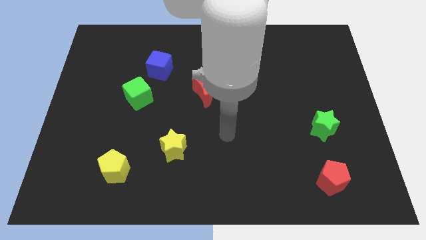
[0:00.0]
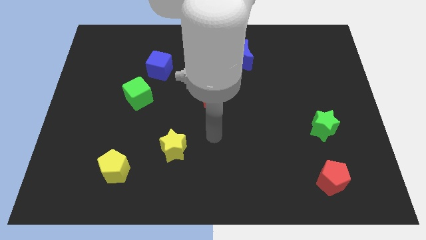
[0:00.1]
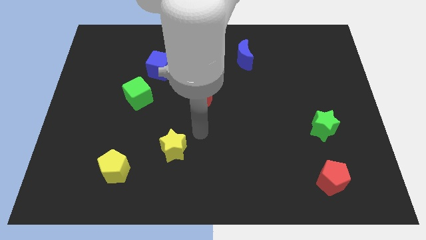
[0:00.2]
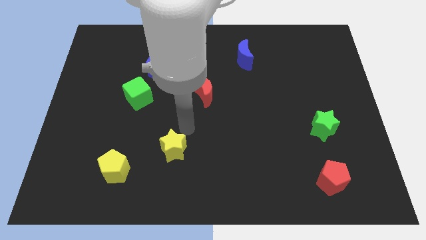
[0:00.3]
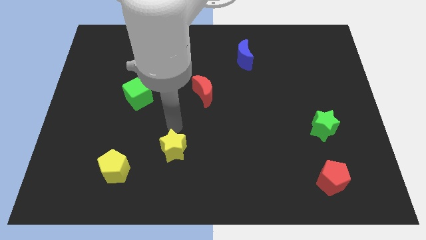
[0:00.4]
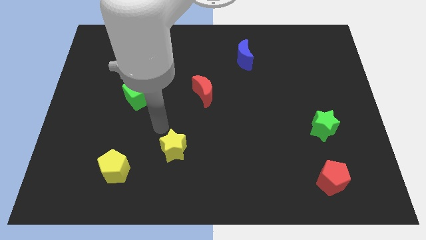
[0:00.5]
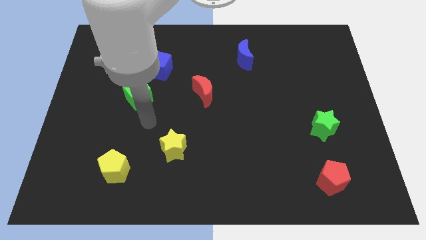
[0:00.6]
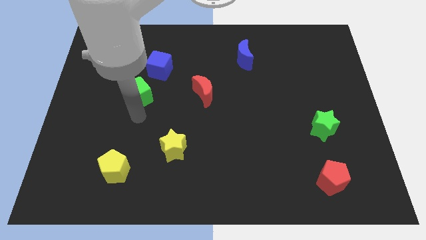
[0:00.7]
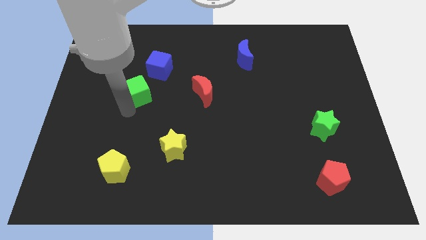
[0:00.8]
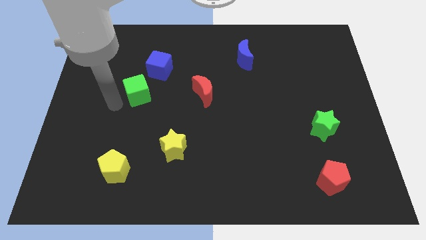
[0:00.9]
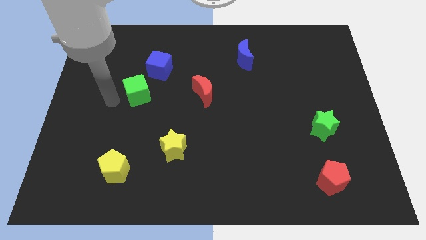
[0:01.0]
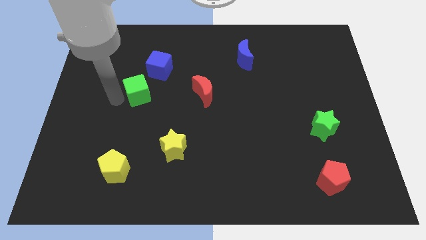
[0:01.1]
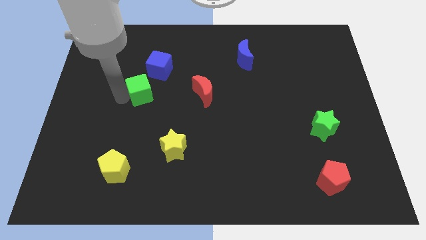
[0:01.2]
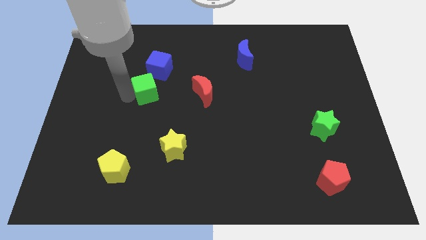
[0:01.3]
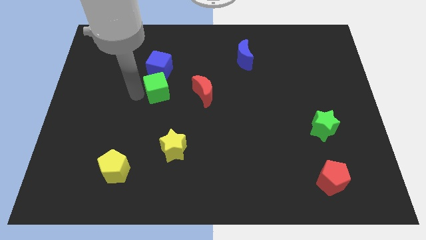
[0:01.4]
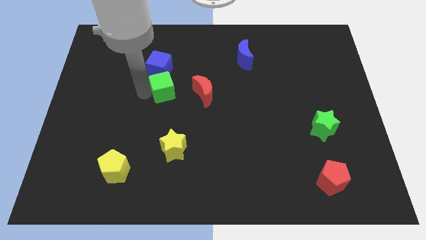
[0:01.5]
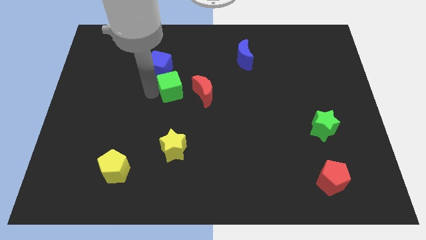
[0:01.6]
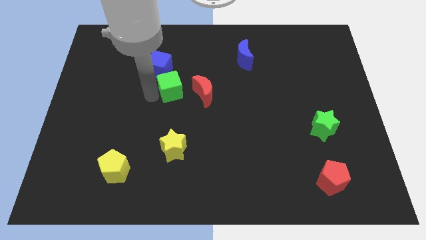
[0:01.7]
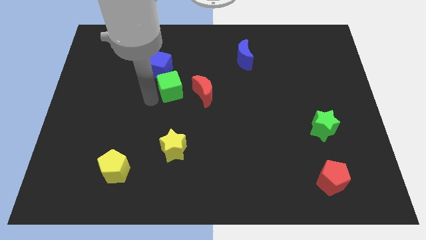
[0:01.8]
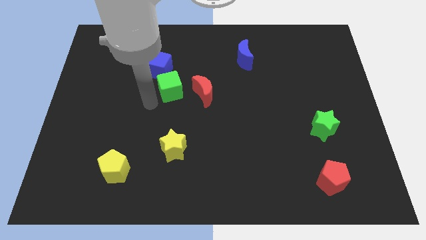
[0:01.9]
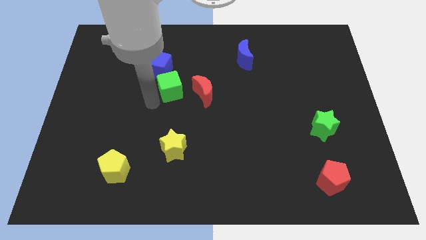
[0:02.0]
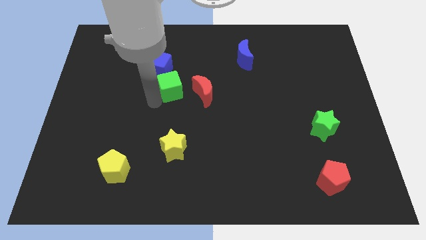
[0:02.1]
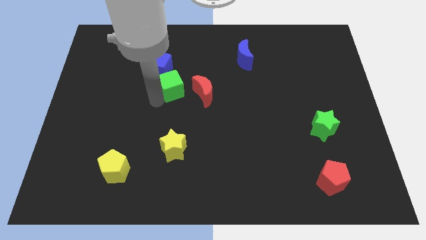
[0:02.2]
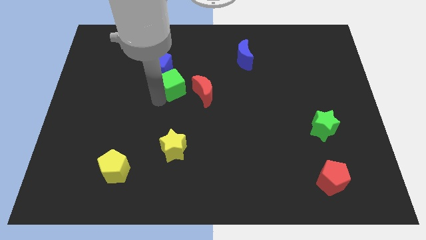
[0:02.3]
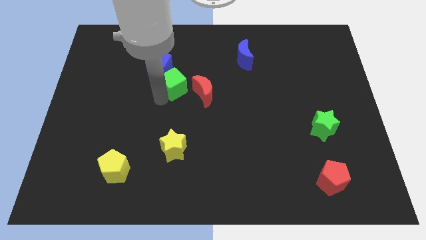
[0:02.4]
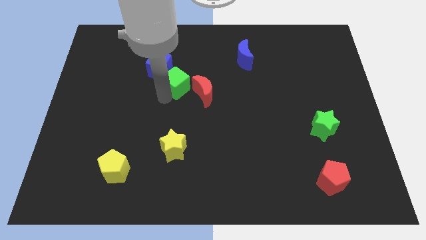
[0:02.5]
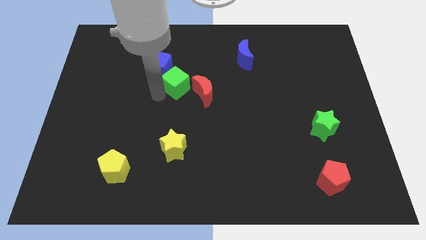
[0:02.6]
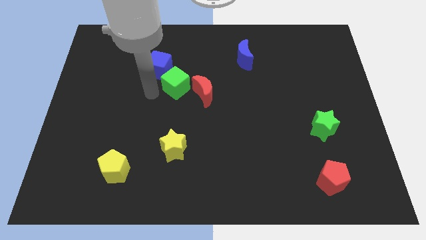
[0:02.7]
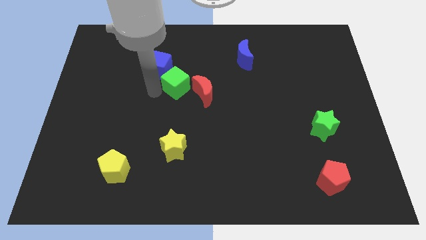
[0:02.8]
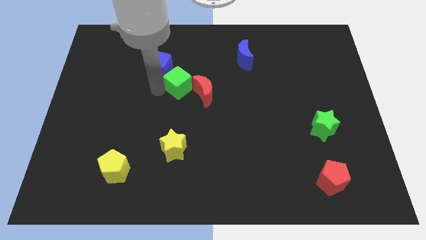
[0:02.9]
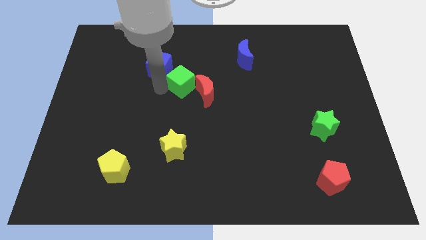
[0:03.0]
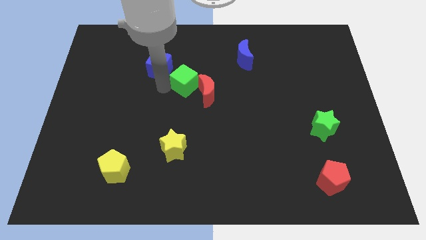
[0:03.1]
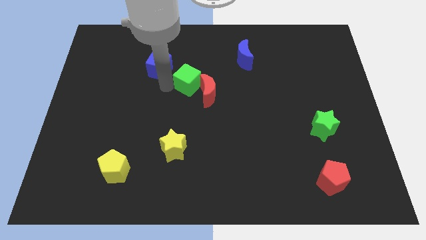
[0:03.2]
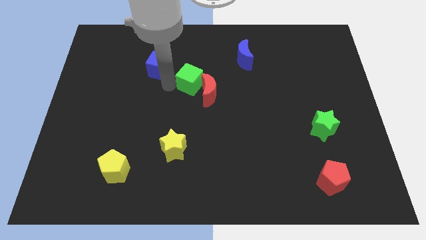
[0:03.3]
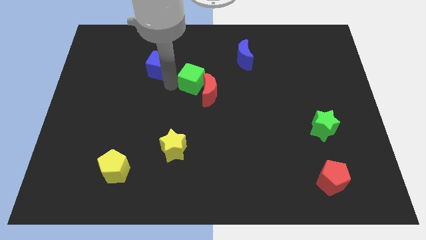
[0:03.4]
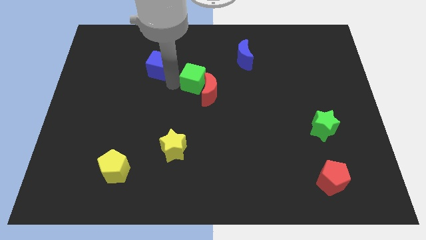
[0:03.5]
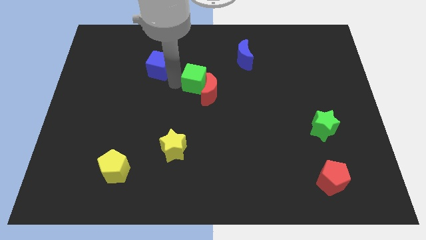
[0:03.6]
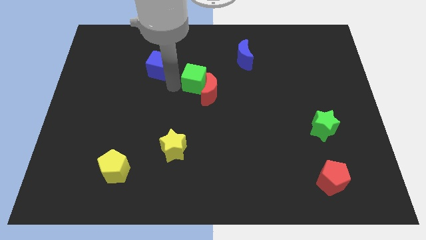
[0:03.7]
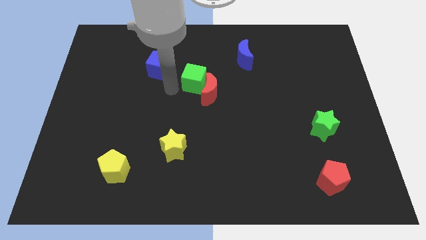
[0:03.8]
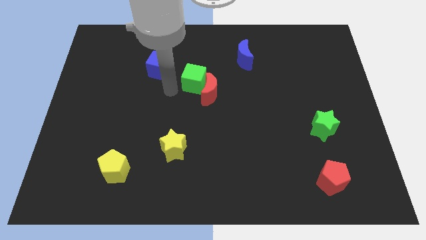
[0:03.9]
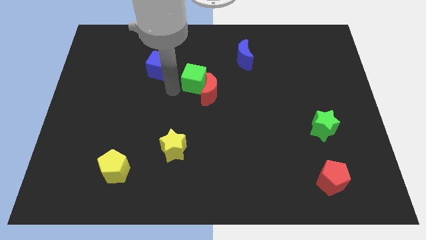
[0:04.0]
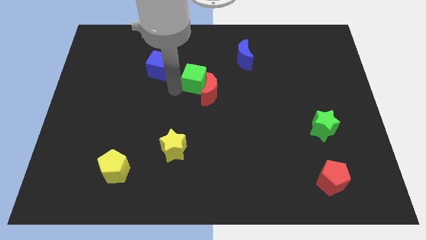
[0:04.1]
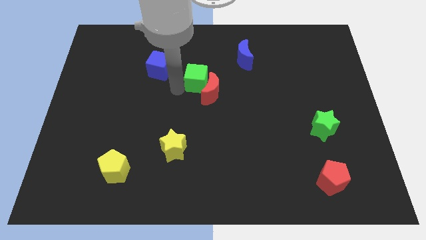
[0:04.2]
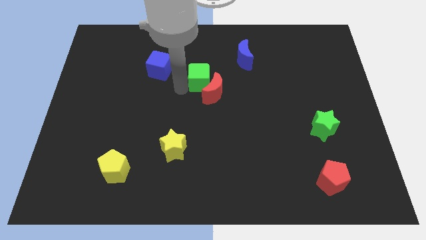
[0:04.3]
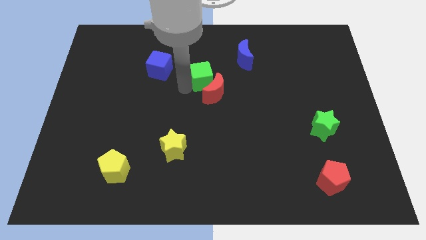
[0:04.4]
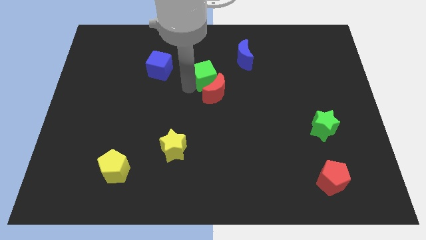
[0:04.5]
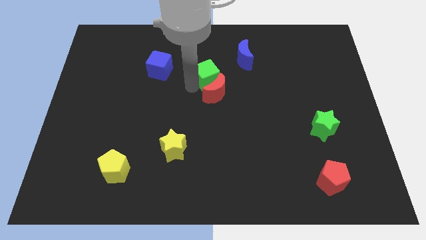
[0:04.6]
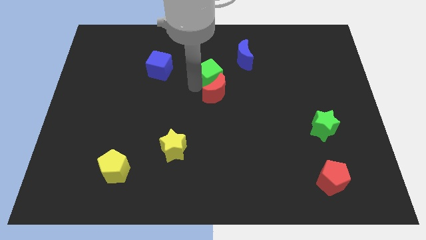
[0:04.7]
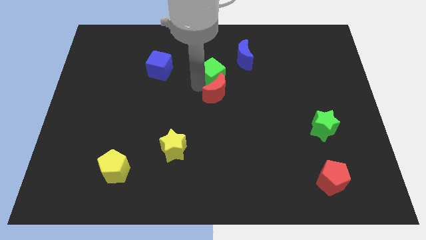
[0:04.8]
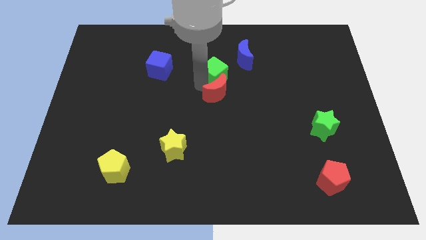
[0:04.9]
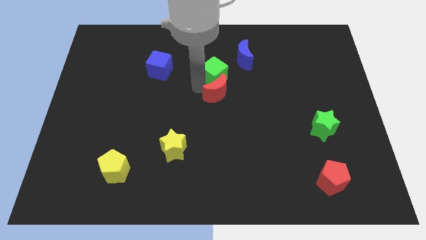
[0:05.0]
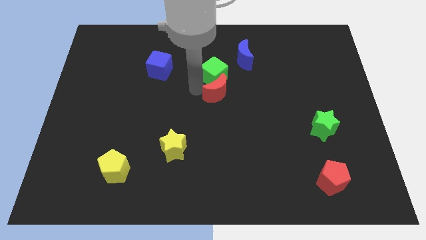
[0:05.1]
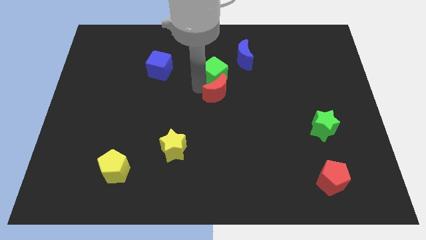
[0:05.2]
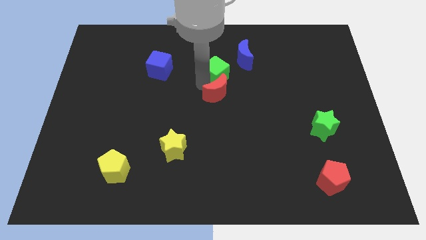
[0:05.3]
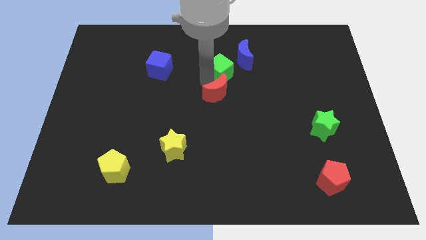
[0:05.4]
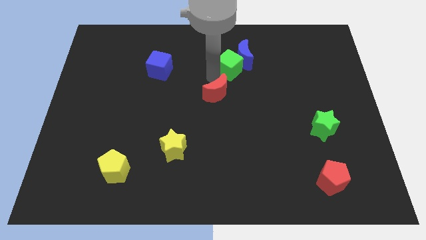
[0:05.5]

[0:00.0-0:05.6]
push the green cube next to the blue moon

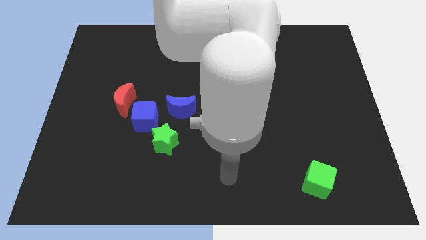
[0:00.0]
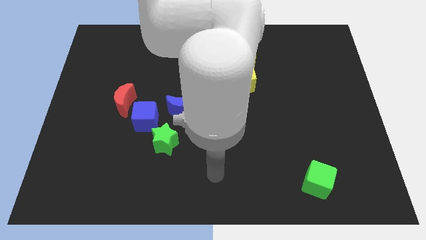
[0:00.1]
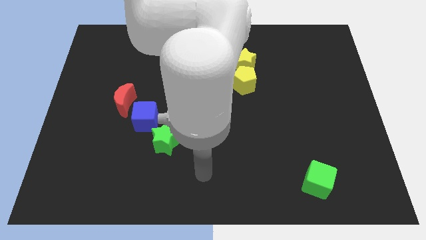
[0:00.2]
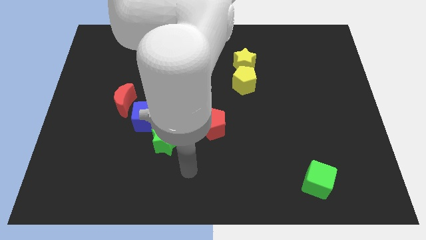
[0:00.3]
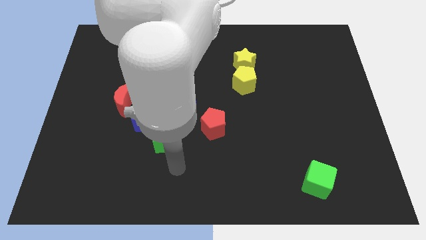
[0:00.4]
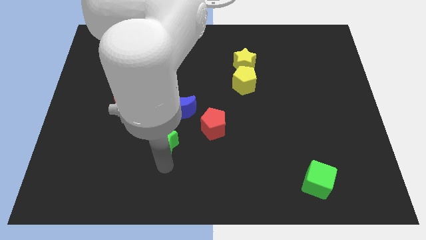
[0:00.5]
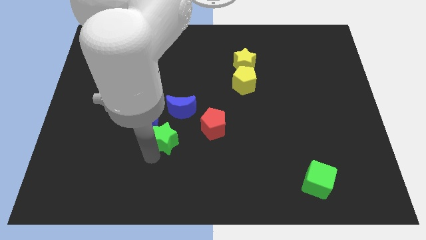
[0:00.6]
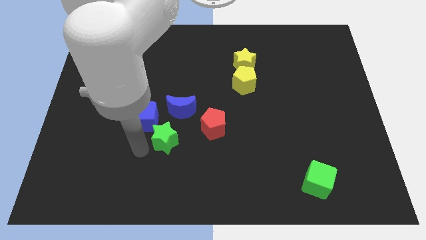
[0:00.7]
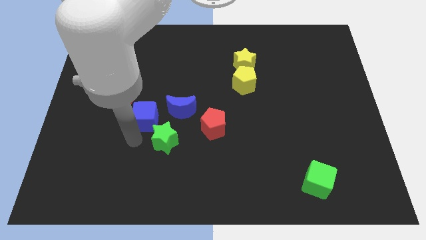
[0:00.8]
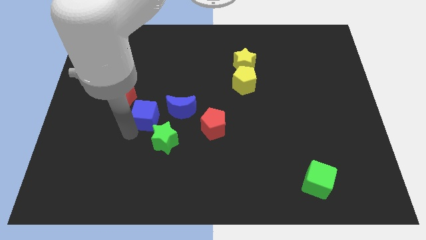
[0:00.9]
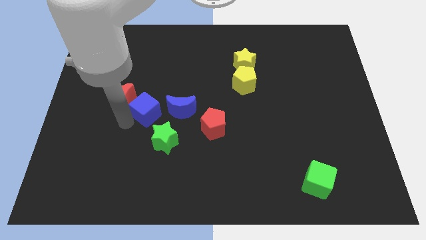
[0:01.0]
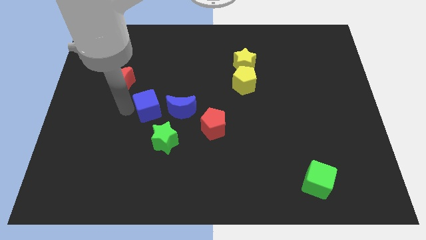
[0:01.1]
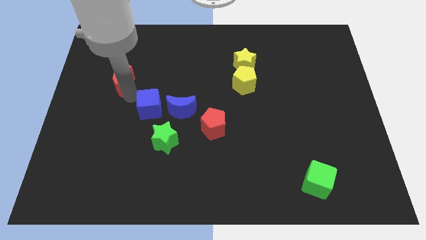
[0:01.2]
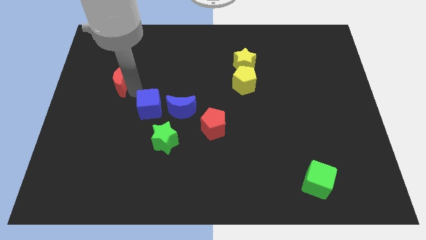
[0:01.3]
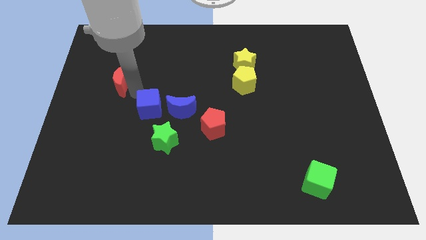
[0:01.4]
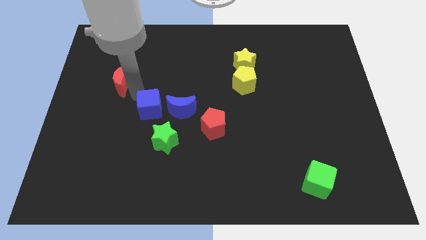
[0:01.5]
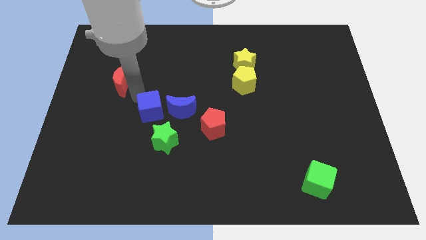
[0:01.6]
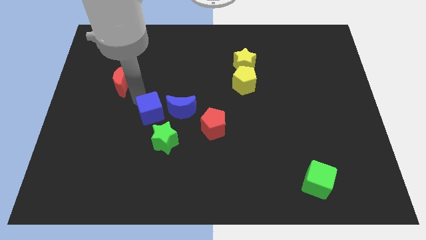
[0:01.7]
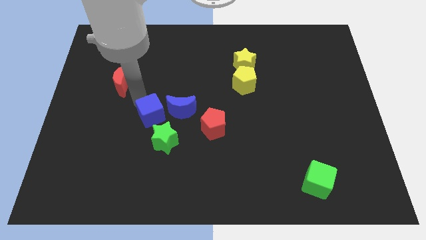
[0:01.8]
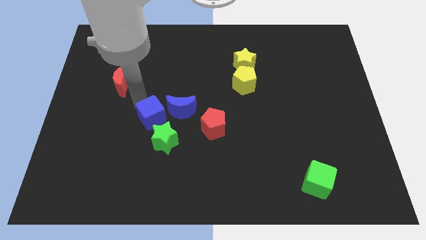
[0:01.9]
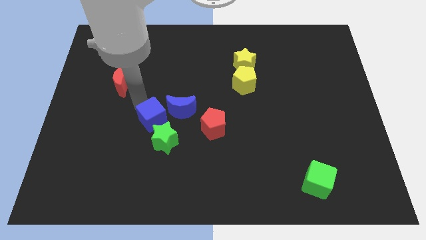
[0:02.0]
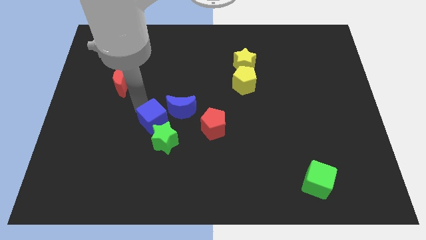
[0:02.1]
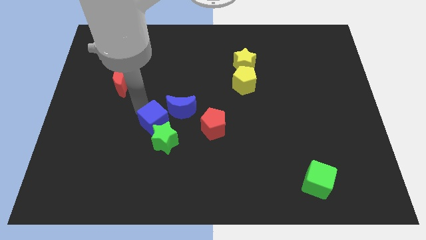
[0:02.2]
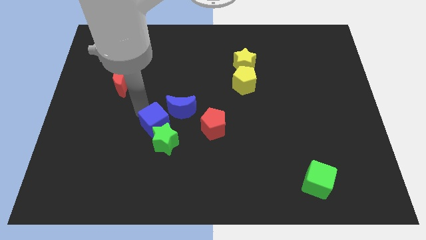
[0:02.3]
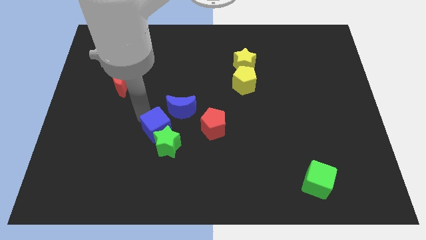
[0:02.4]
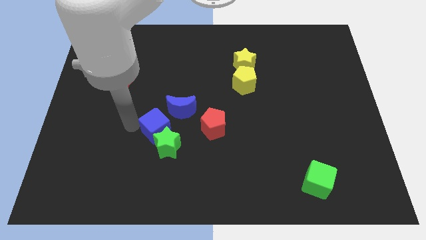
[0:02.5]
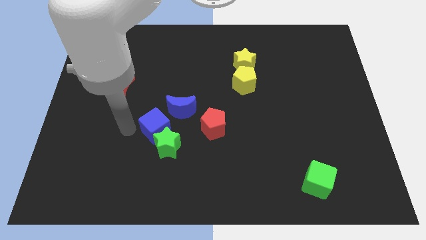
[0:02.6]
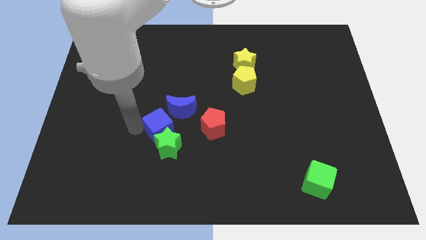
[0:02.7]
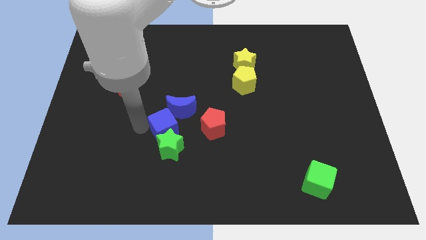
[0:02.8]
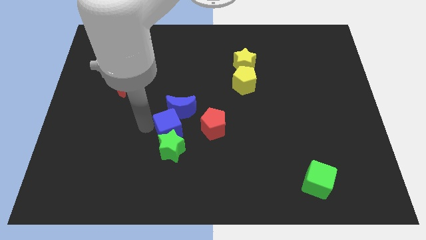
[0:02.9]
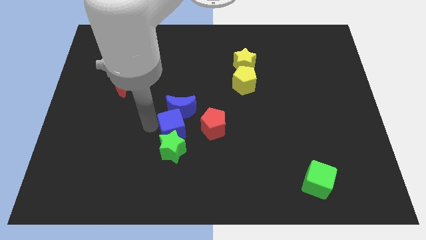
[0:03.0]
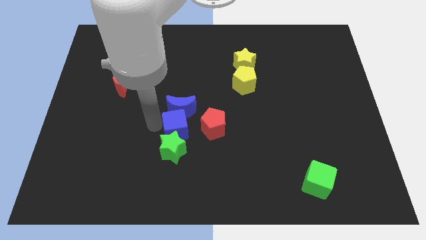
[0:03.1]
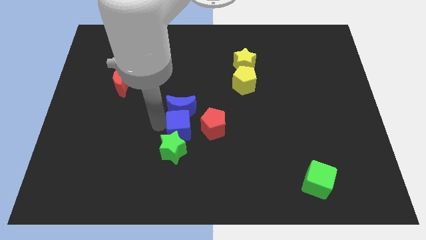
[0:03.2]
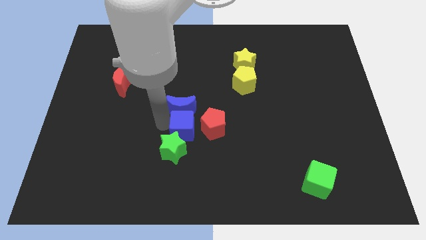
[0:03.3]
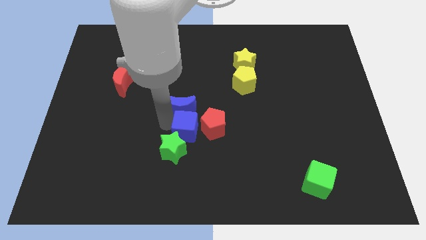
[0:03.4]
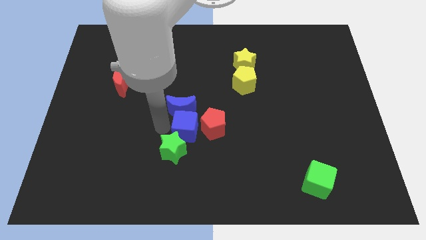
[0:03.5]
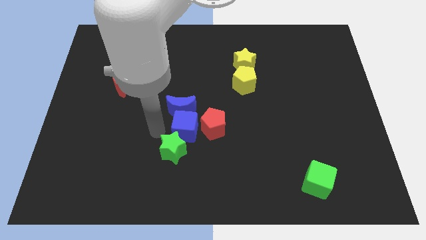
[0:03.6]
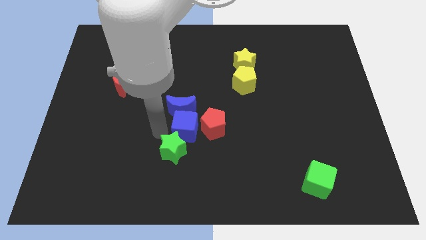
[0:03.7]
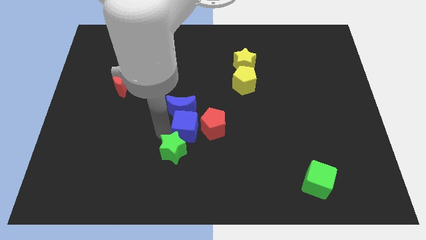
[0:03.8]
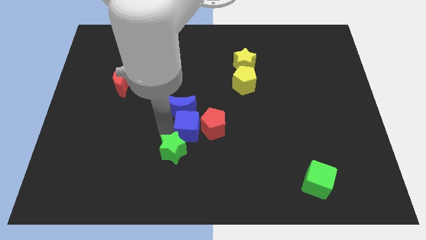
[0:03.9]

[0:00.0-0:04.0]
move the blue cube next to the red pentagon
